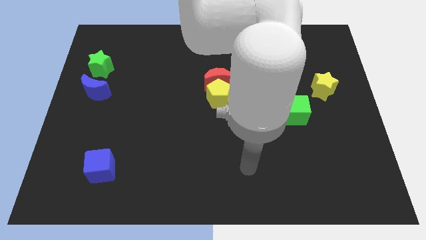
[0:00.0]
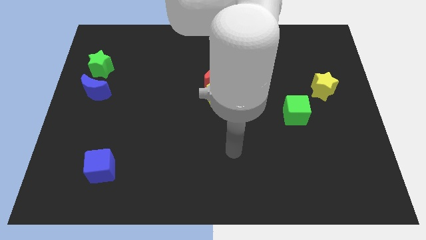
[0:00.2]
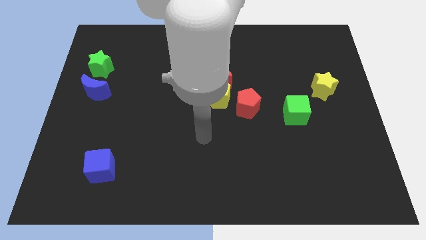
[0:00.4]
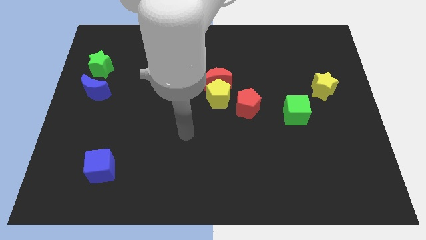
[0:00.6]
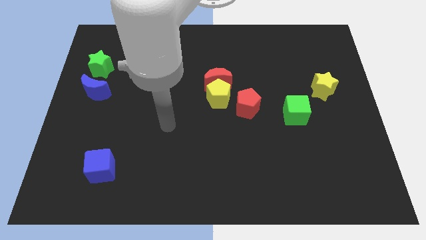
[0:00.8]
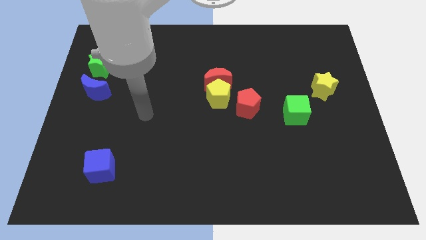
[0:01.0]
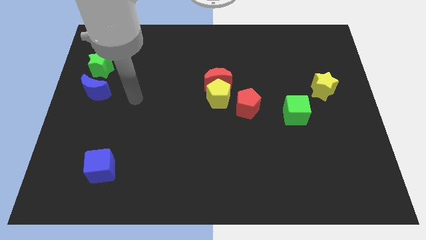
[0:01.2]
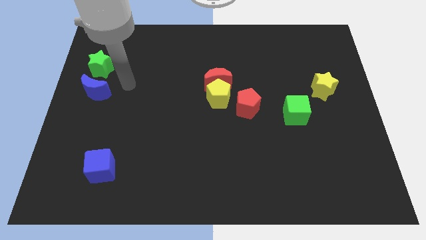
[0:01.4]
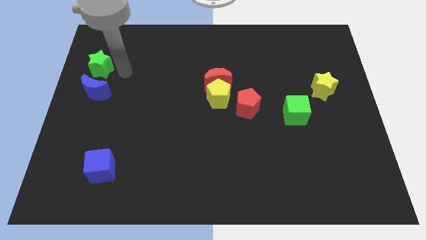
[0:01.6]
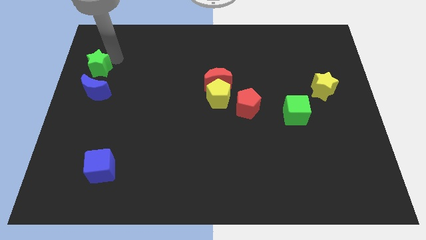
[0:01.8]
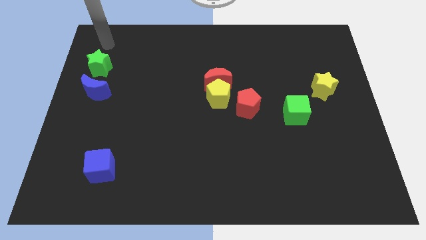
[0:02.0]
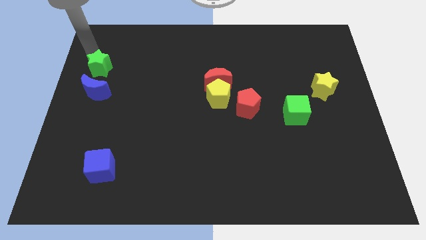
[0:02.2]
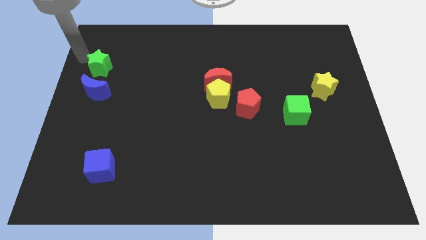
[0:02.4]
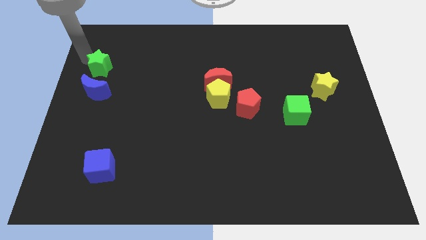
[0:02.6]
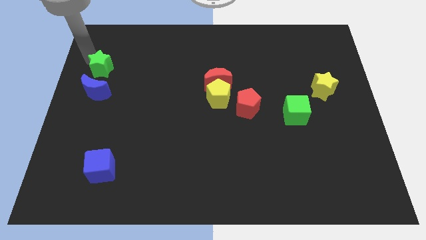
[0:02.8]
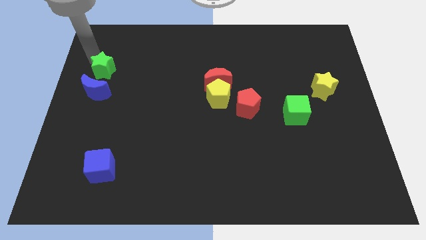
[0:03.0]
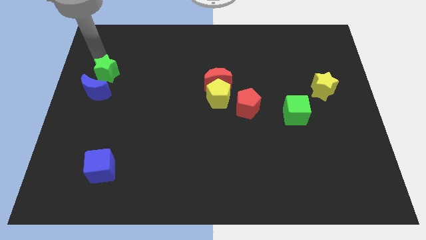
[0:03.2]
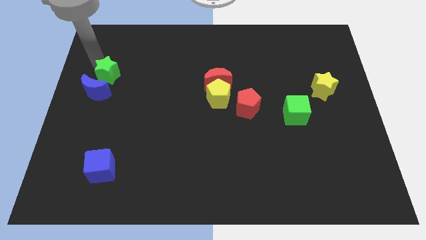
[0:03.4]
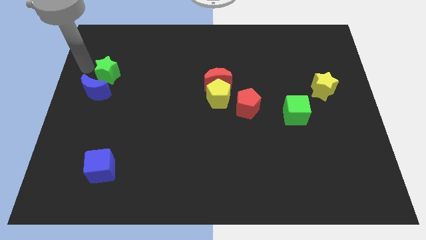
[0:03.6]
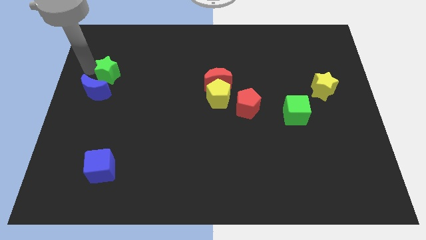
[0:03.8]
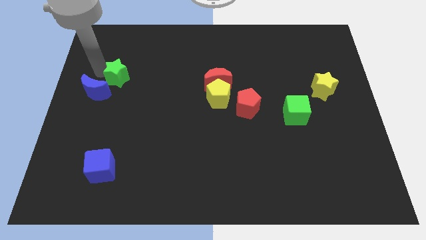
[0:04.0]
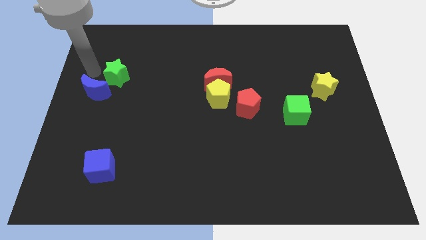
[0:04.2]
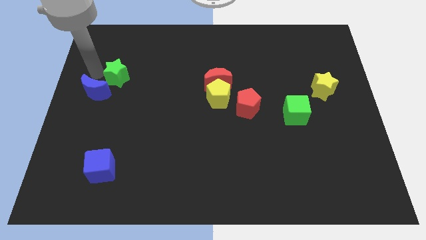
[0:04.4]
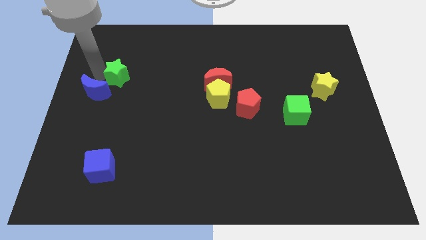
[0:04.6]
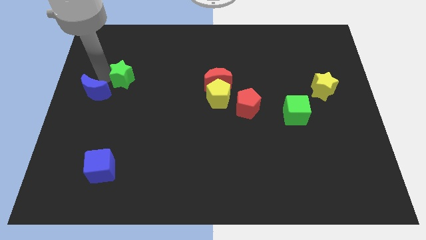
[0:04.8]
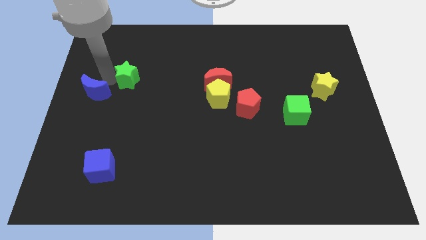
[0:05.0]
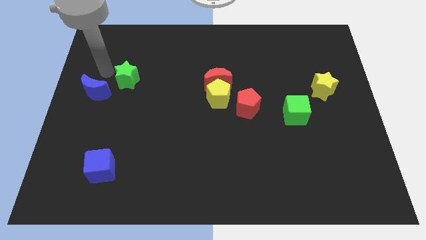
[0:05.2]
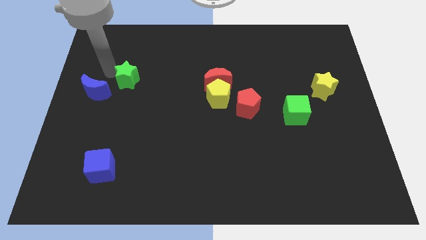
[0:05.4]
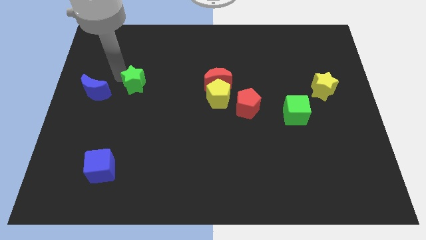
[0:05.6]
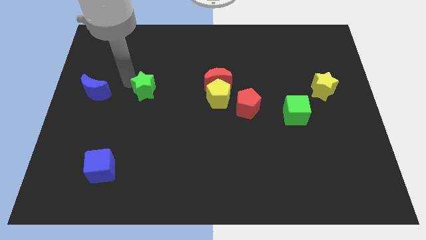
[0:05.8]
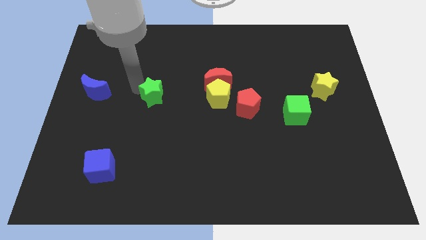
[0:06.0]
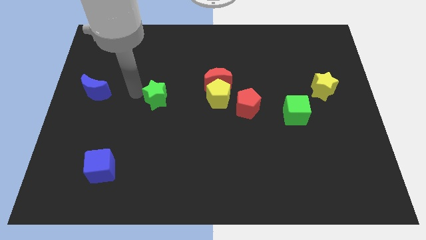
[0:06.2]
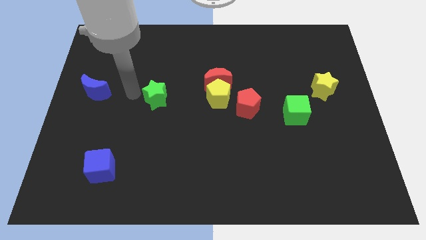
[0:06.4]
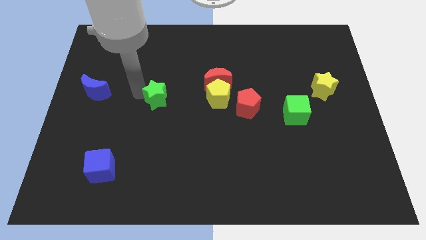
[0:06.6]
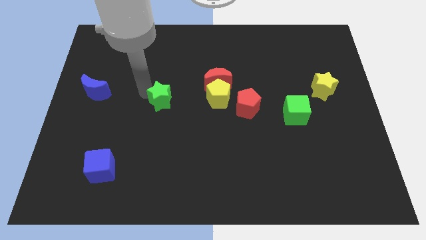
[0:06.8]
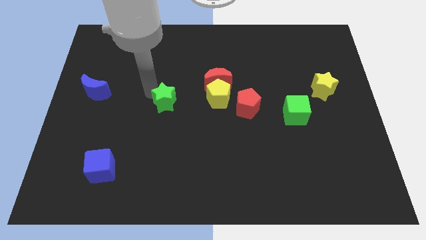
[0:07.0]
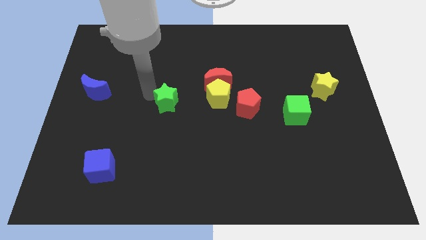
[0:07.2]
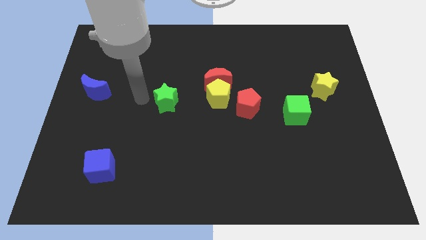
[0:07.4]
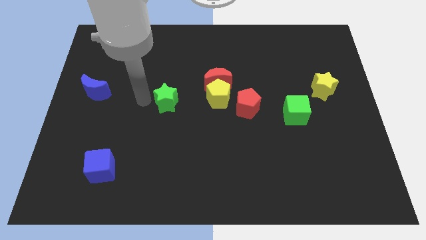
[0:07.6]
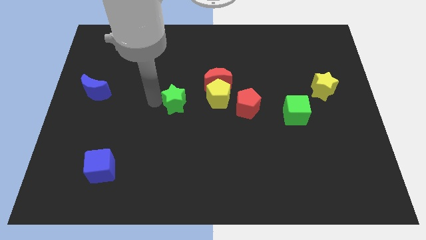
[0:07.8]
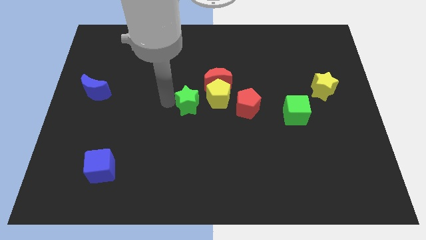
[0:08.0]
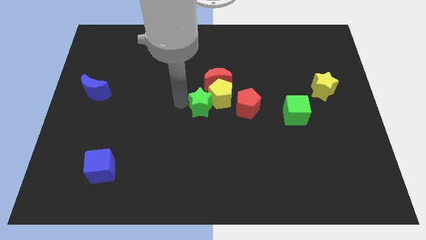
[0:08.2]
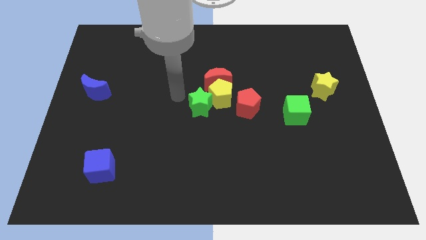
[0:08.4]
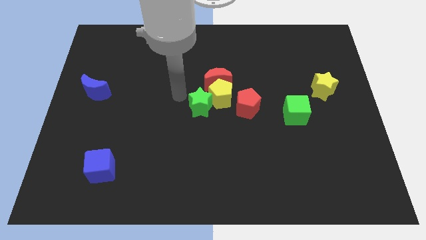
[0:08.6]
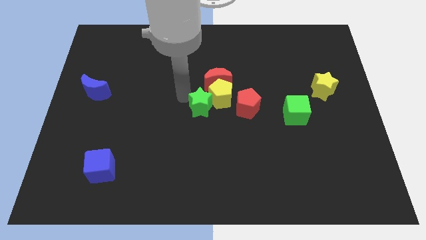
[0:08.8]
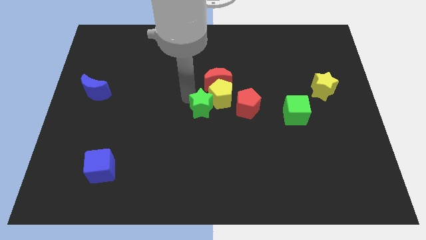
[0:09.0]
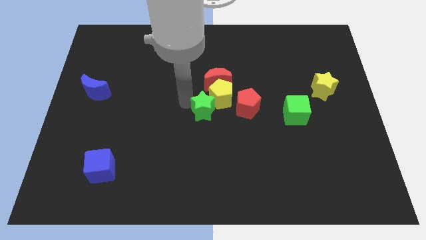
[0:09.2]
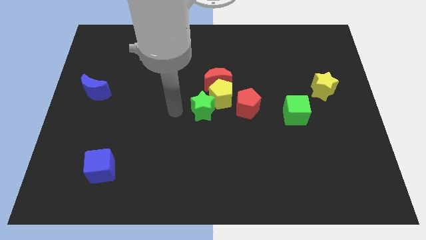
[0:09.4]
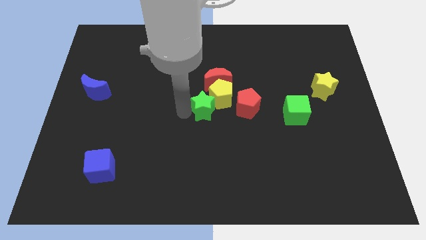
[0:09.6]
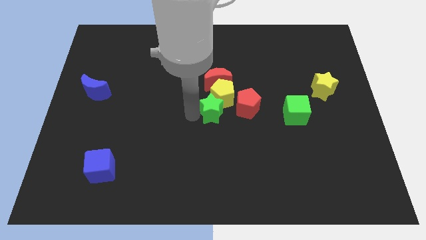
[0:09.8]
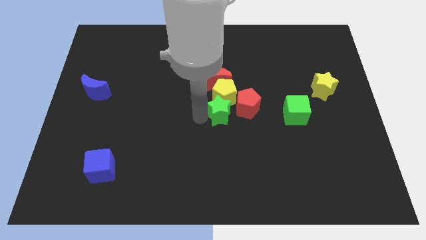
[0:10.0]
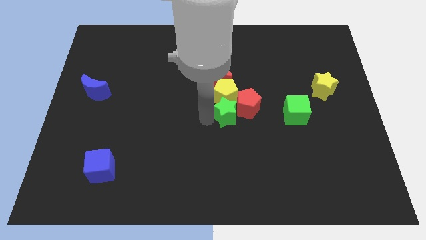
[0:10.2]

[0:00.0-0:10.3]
slide the green star towards the red pentagon
